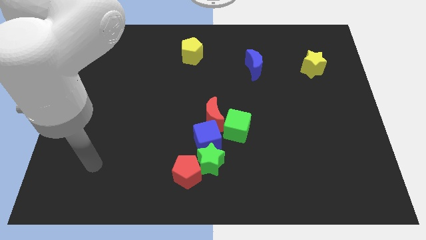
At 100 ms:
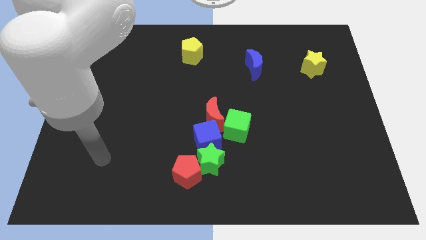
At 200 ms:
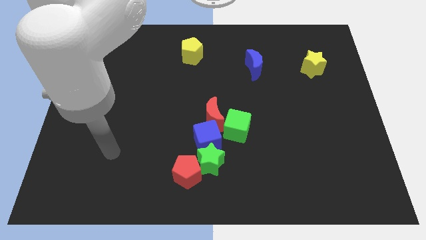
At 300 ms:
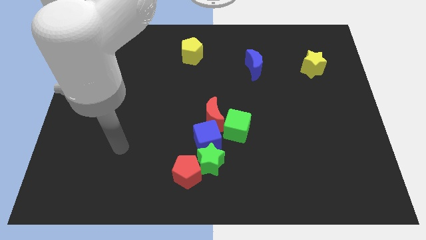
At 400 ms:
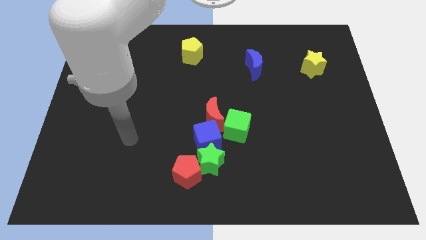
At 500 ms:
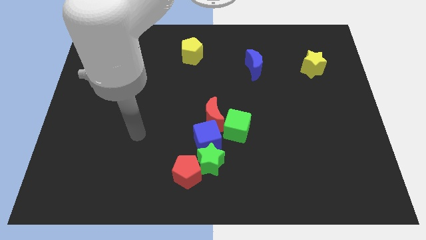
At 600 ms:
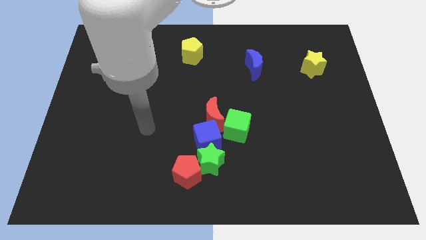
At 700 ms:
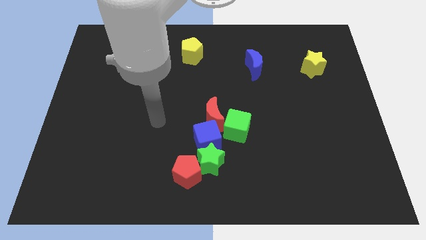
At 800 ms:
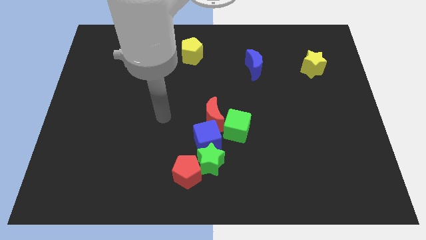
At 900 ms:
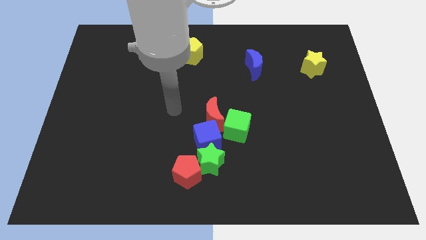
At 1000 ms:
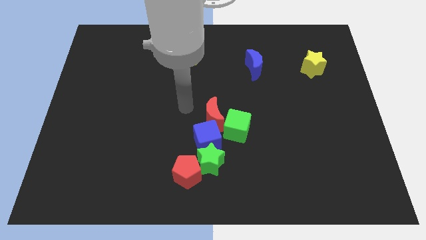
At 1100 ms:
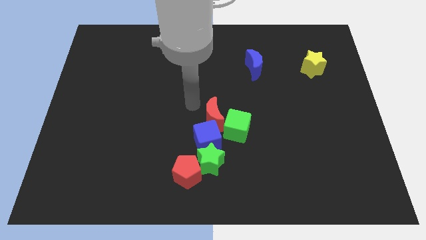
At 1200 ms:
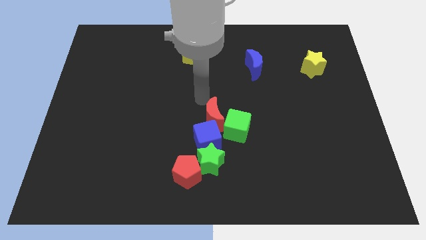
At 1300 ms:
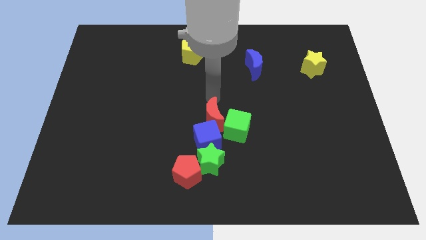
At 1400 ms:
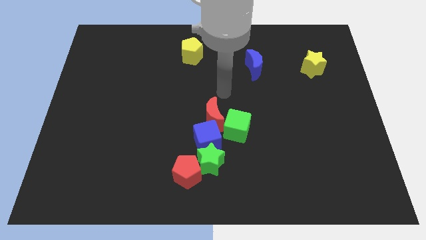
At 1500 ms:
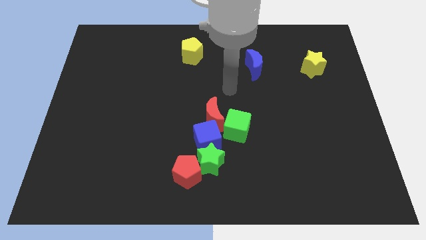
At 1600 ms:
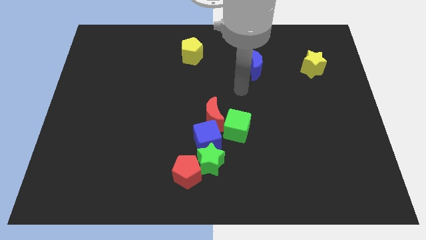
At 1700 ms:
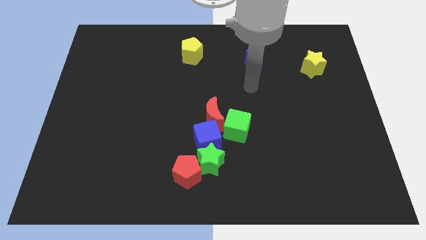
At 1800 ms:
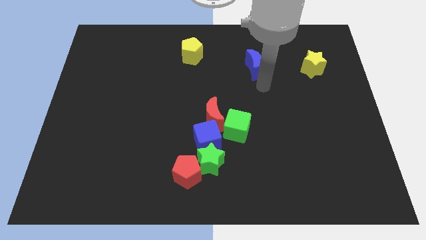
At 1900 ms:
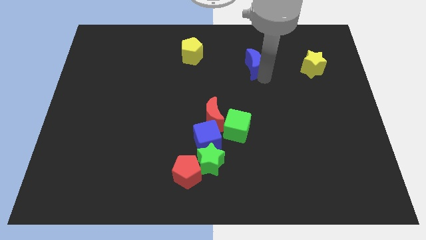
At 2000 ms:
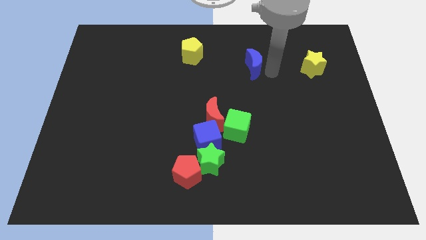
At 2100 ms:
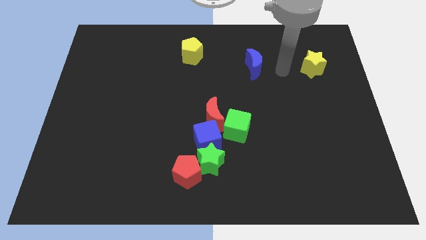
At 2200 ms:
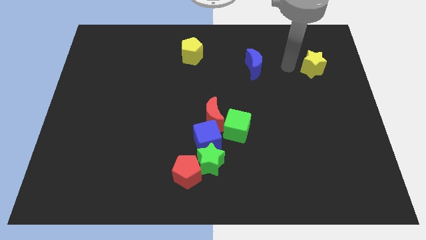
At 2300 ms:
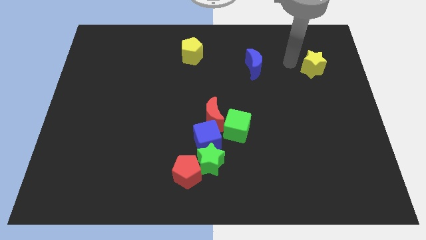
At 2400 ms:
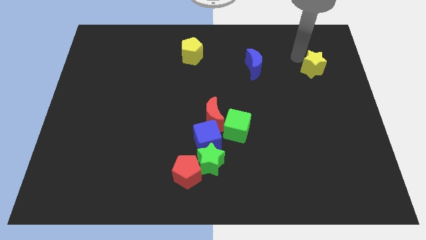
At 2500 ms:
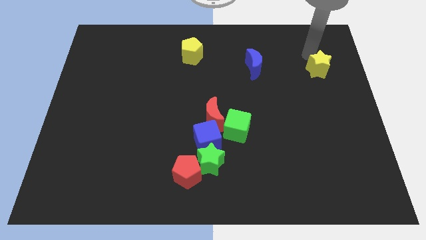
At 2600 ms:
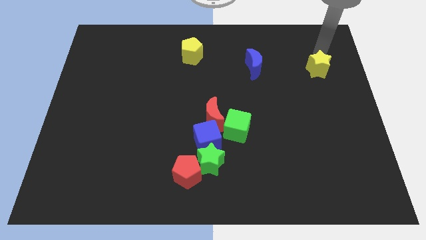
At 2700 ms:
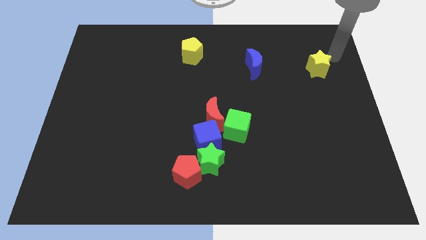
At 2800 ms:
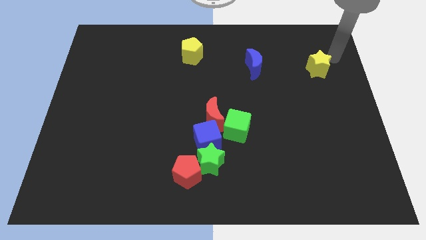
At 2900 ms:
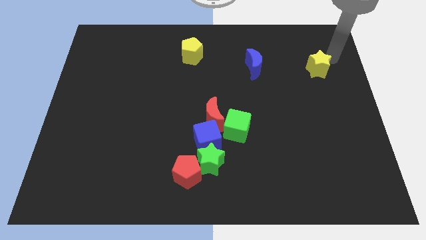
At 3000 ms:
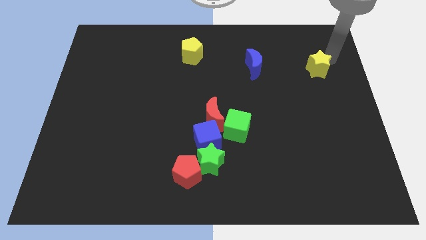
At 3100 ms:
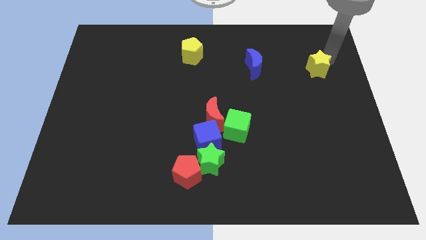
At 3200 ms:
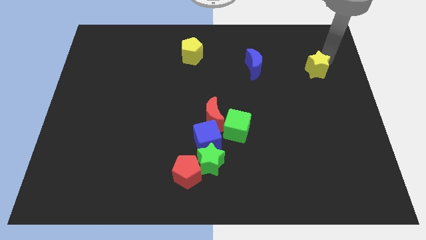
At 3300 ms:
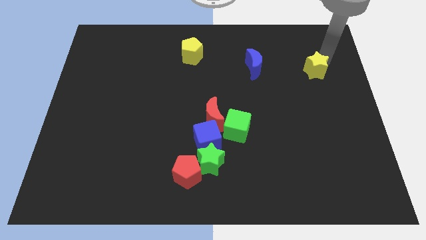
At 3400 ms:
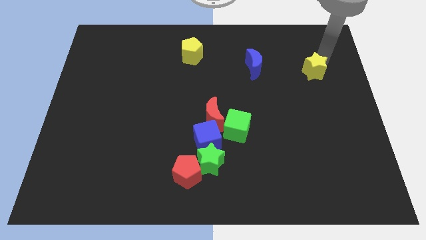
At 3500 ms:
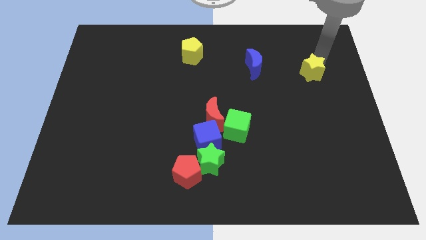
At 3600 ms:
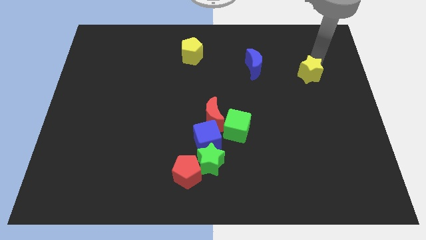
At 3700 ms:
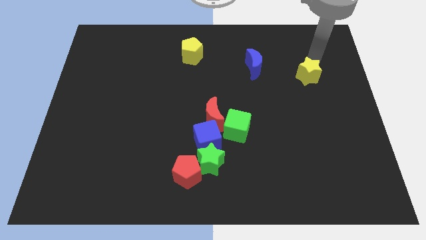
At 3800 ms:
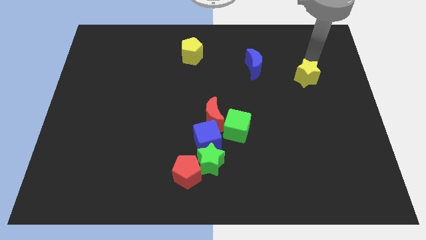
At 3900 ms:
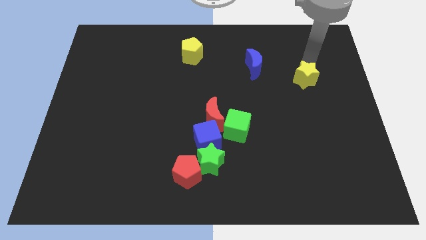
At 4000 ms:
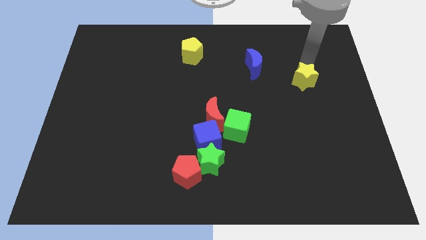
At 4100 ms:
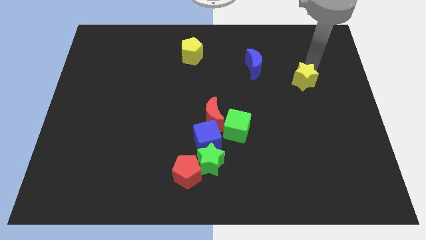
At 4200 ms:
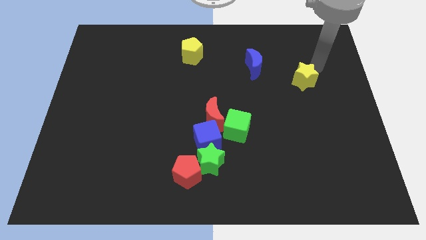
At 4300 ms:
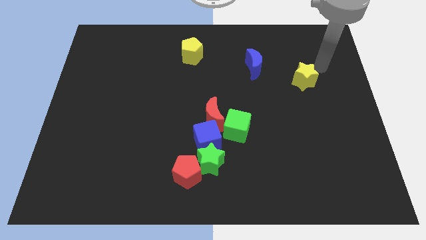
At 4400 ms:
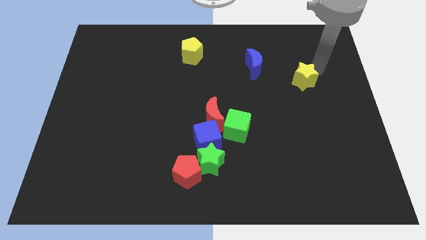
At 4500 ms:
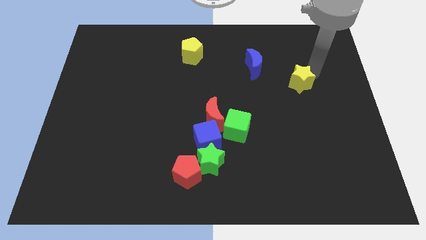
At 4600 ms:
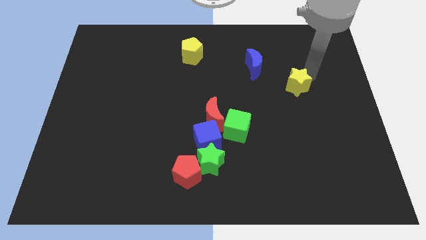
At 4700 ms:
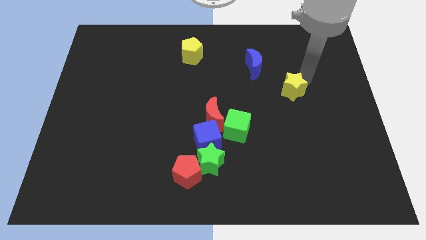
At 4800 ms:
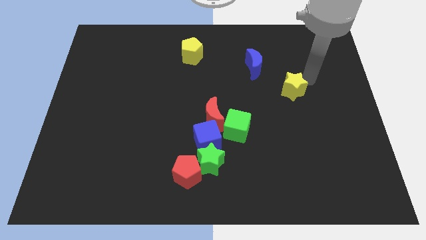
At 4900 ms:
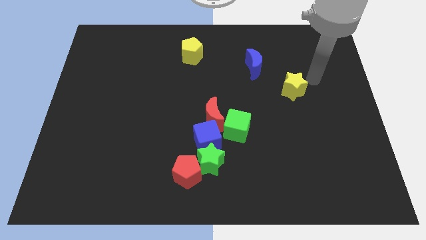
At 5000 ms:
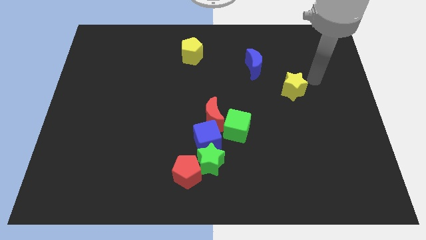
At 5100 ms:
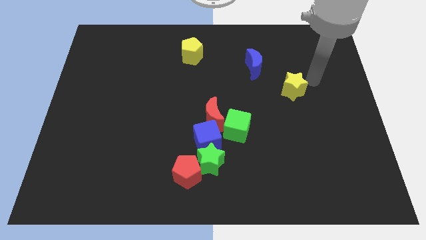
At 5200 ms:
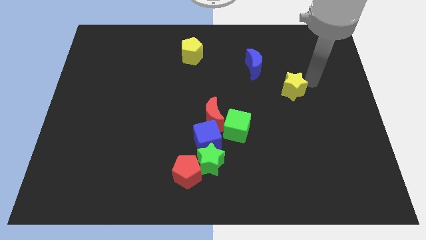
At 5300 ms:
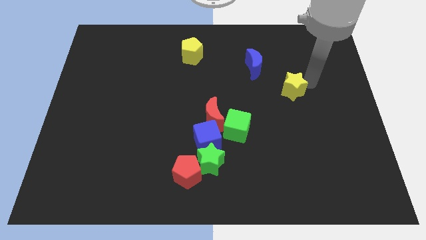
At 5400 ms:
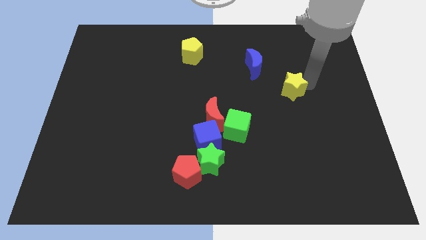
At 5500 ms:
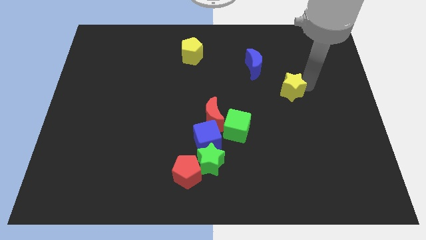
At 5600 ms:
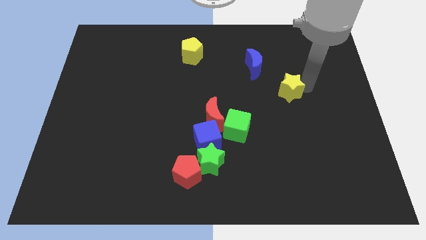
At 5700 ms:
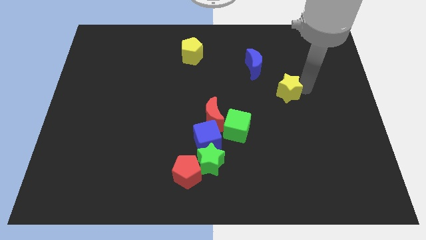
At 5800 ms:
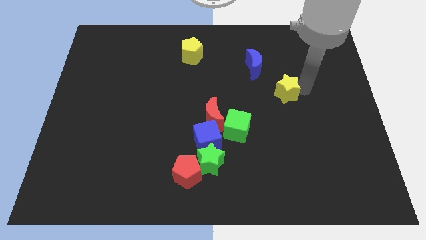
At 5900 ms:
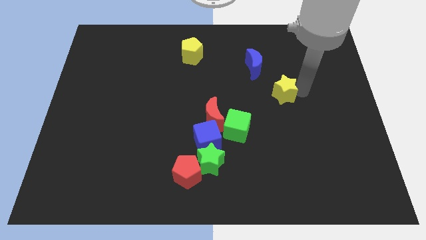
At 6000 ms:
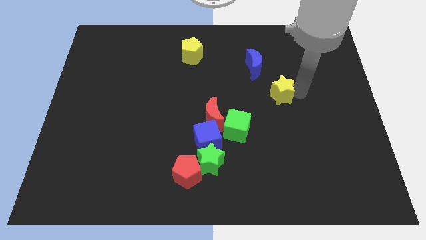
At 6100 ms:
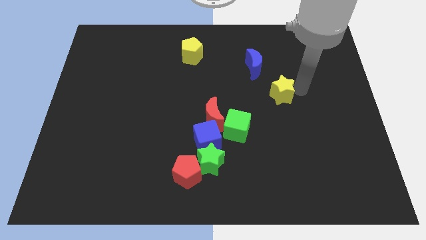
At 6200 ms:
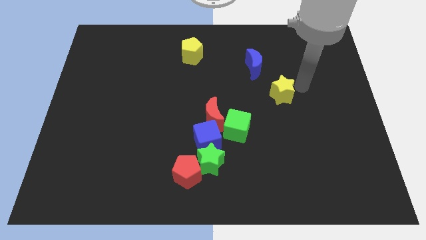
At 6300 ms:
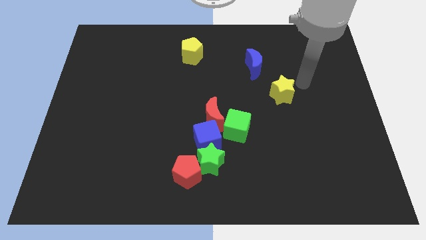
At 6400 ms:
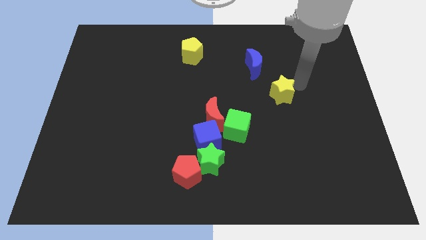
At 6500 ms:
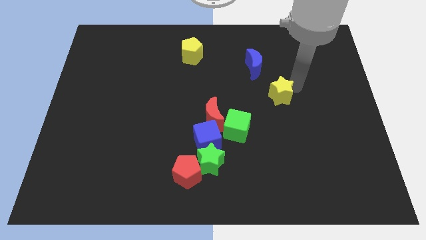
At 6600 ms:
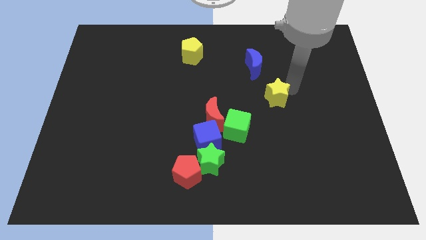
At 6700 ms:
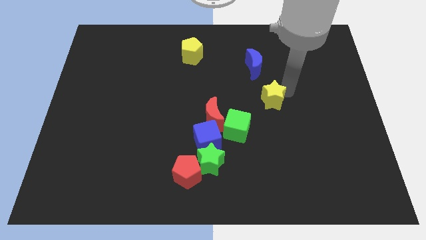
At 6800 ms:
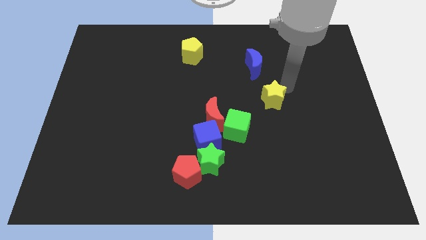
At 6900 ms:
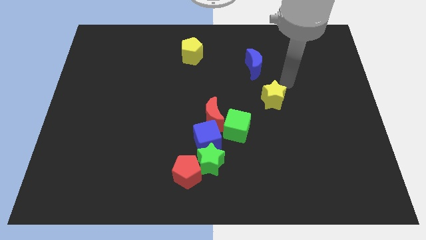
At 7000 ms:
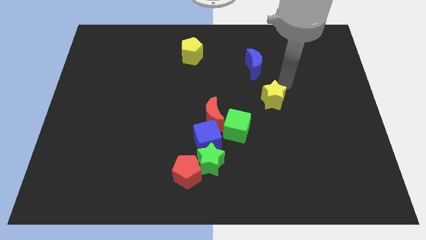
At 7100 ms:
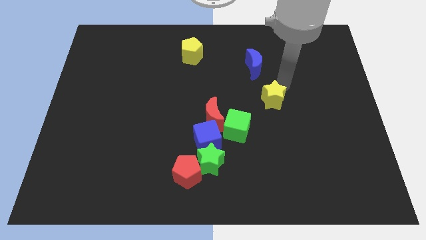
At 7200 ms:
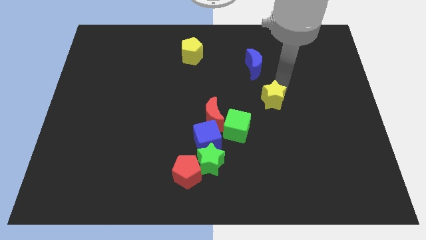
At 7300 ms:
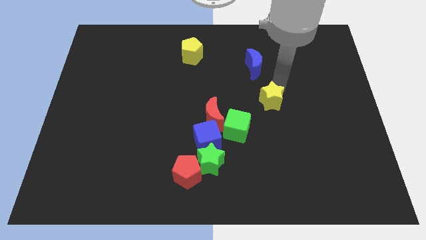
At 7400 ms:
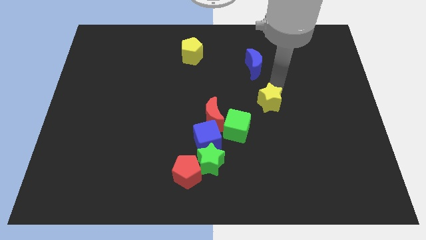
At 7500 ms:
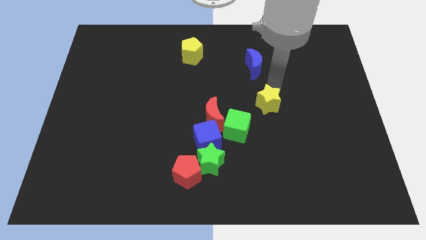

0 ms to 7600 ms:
move the yellow star just right of the red moon

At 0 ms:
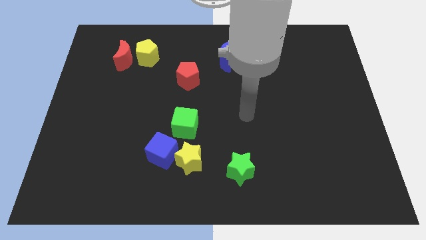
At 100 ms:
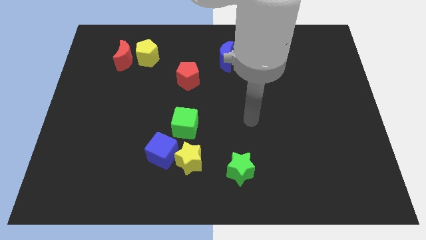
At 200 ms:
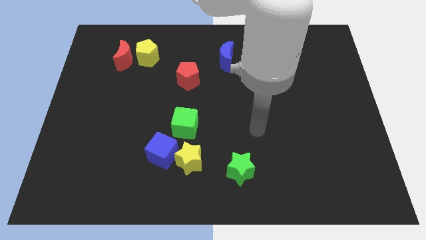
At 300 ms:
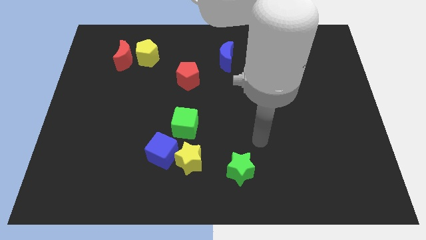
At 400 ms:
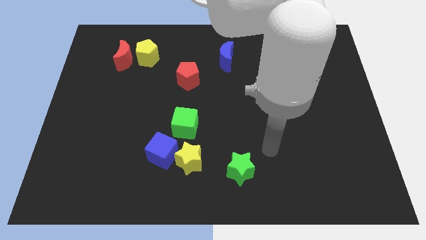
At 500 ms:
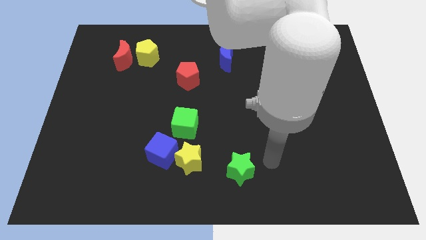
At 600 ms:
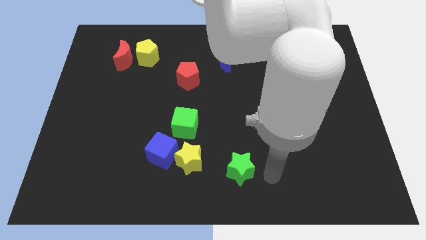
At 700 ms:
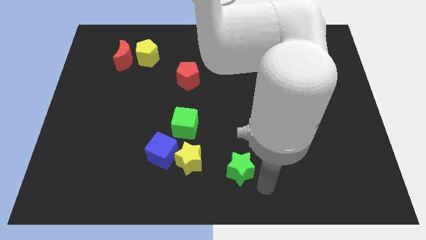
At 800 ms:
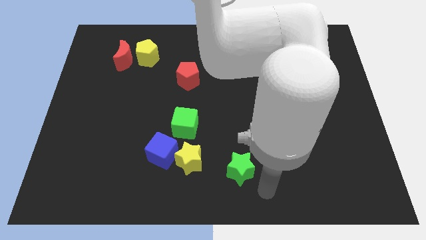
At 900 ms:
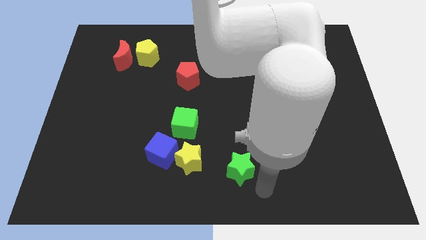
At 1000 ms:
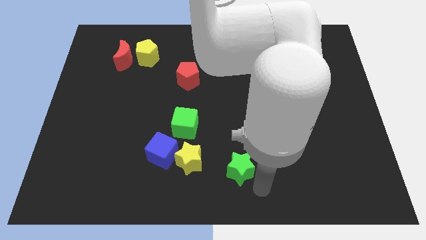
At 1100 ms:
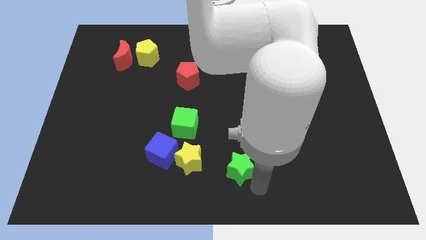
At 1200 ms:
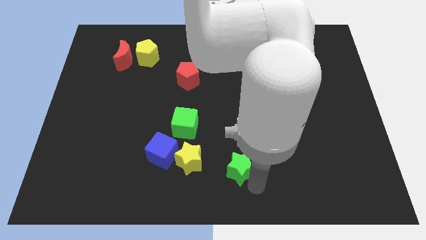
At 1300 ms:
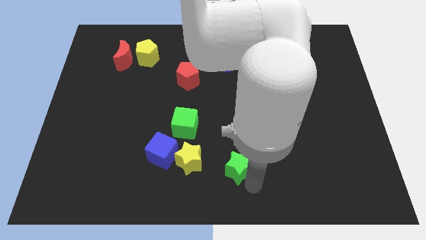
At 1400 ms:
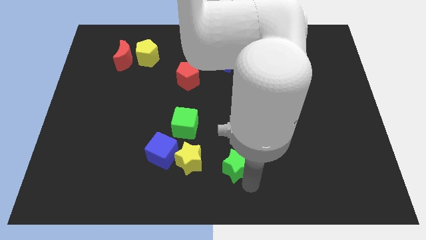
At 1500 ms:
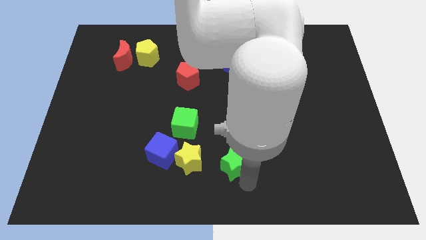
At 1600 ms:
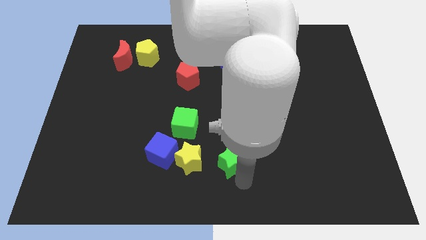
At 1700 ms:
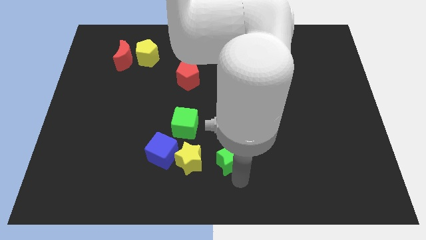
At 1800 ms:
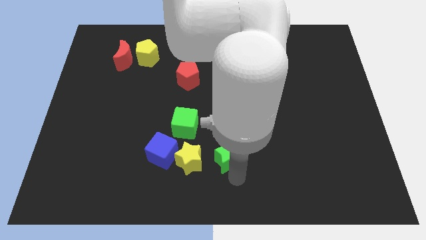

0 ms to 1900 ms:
move the green star diagonally down and to the right of the green cube
